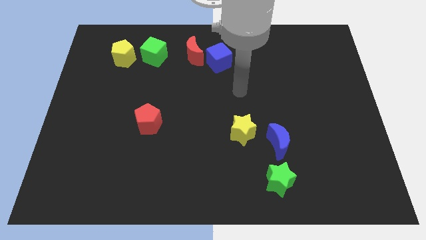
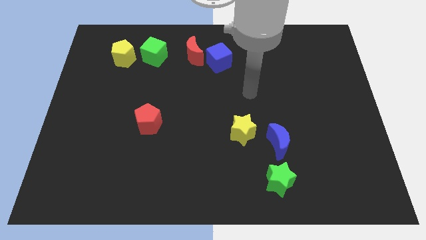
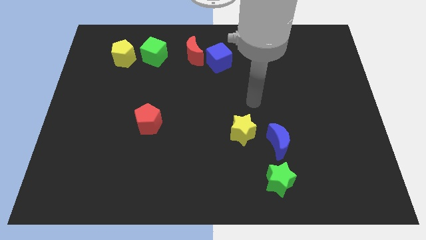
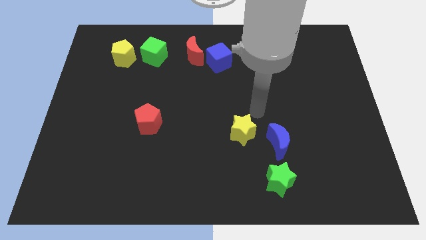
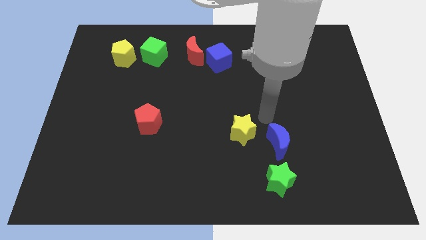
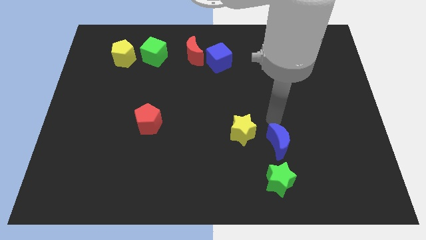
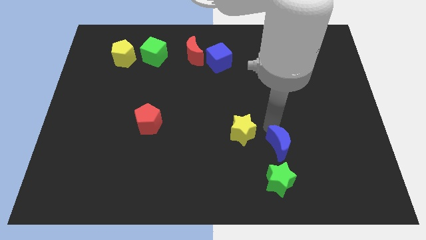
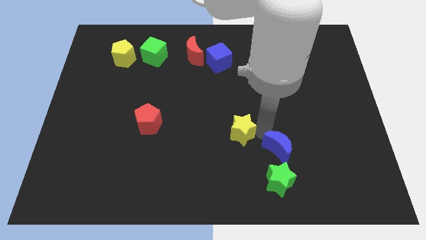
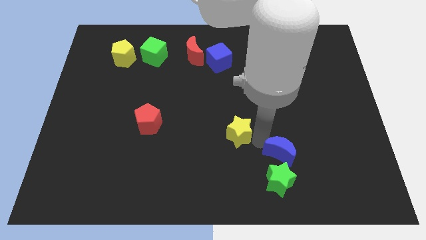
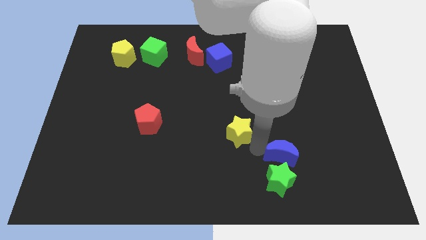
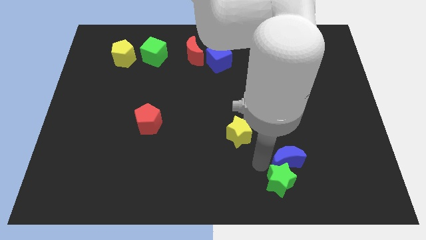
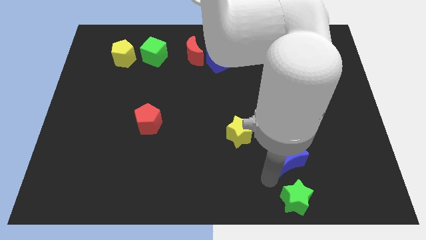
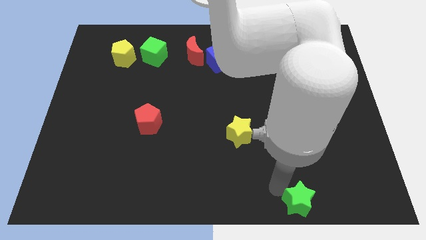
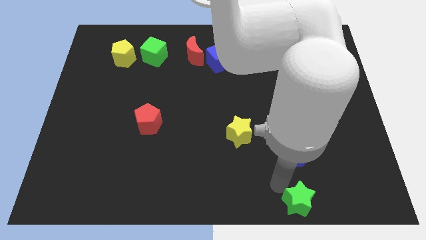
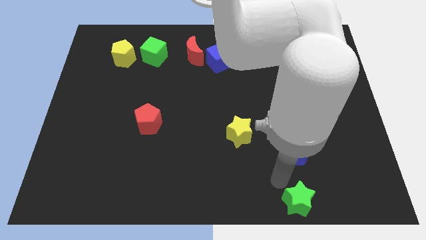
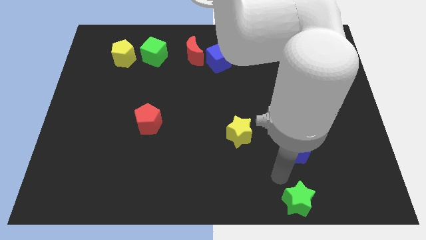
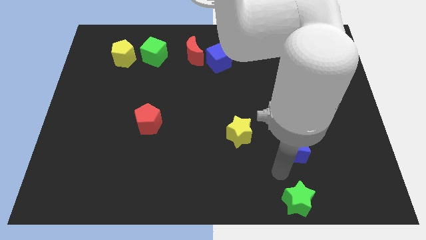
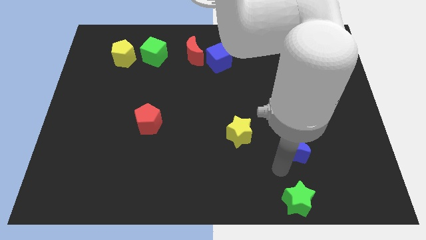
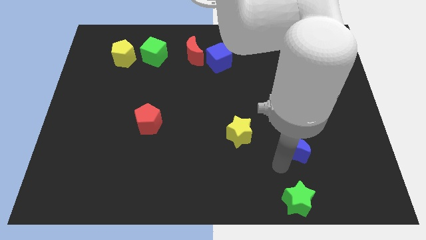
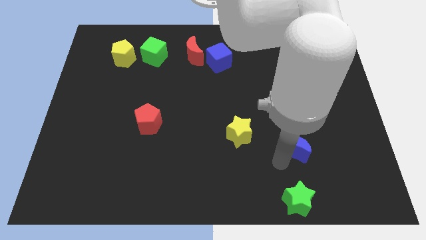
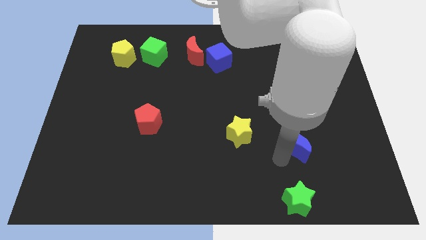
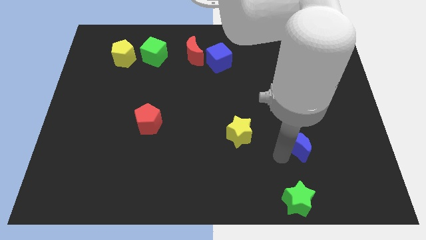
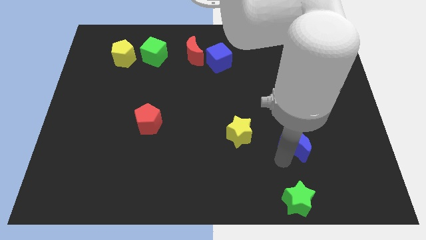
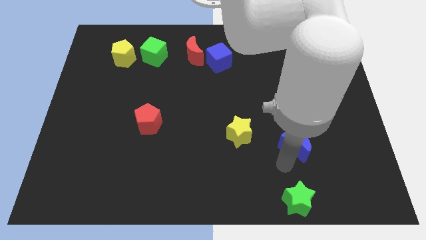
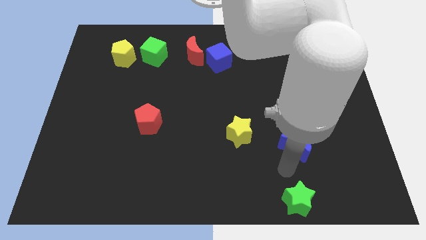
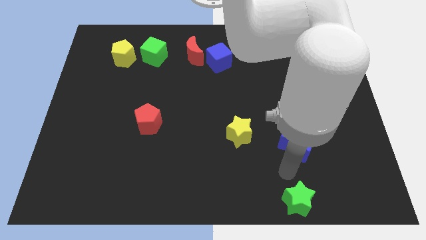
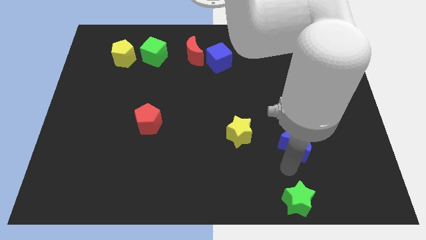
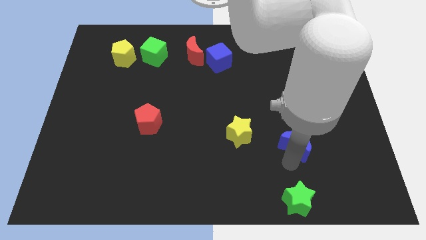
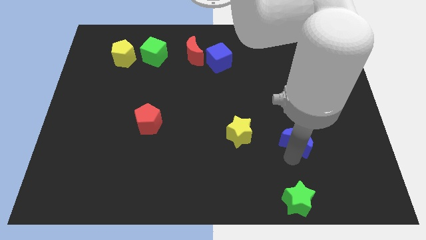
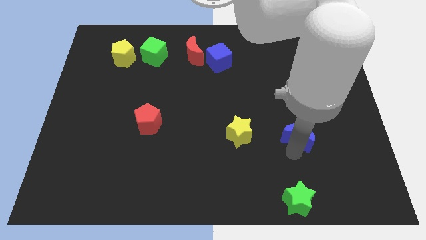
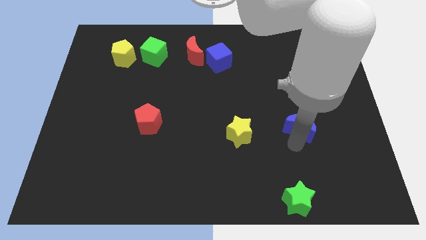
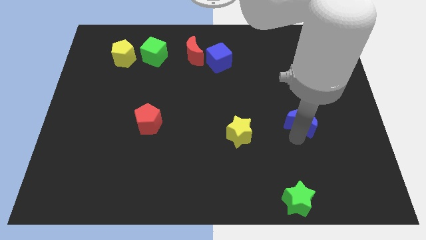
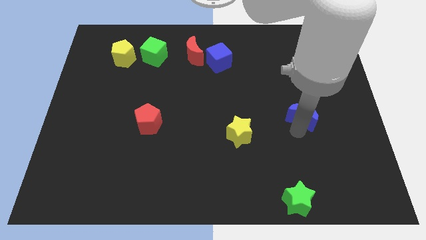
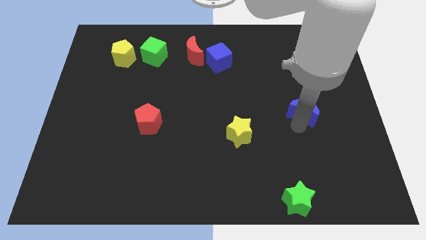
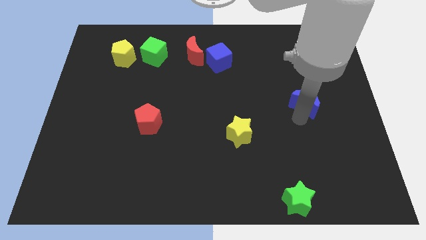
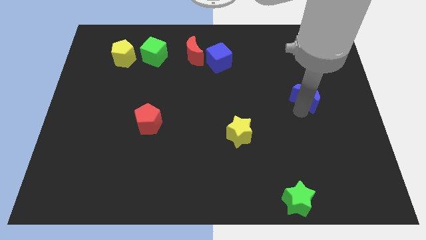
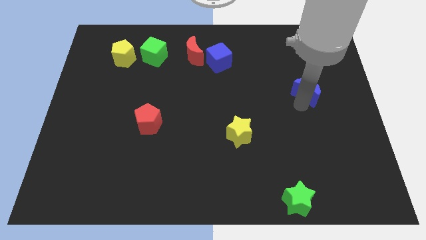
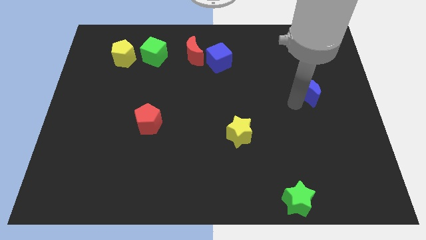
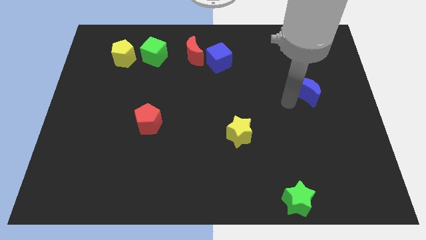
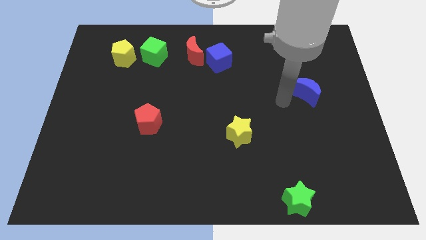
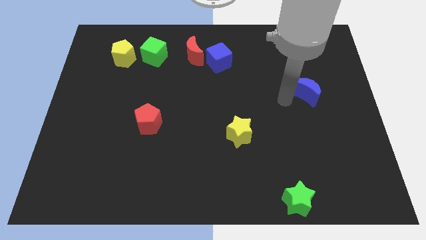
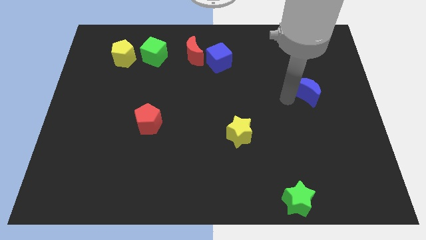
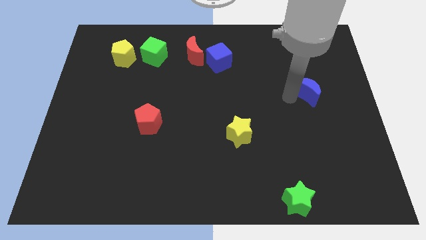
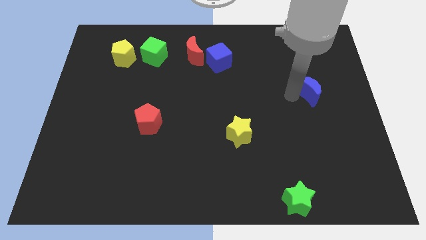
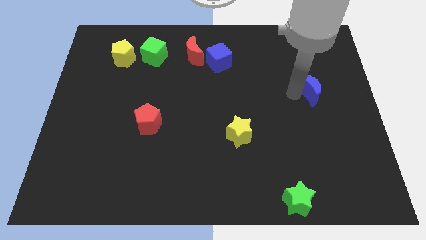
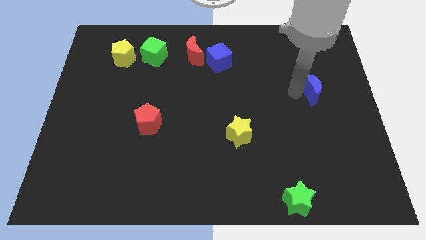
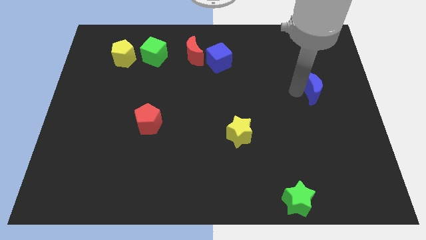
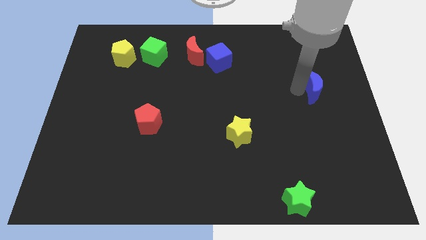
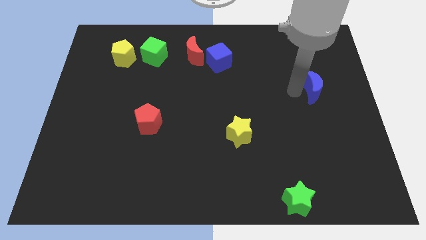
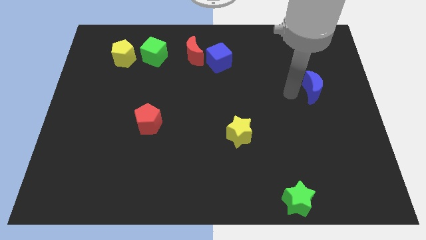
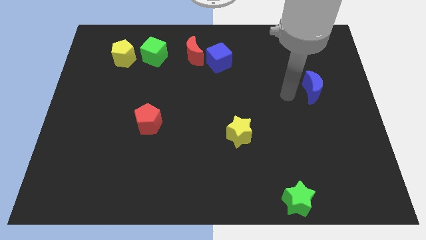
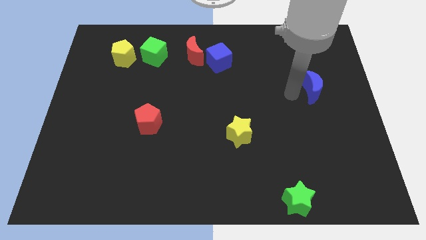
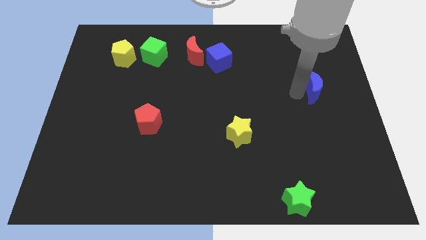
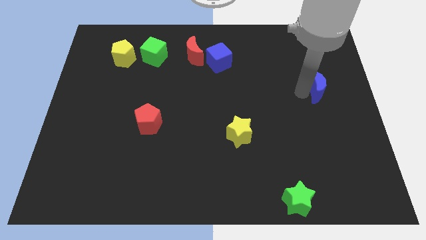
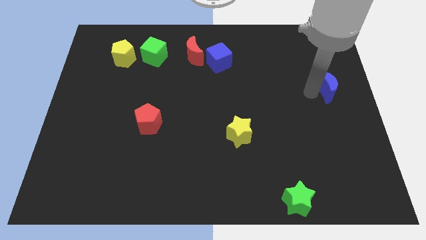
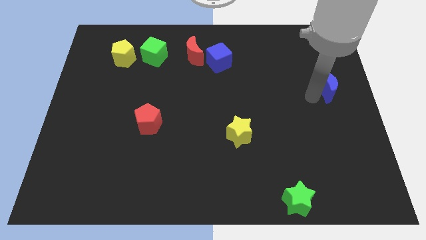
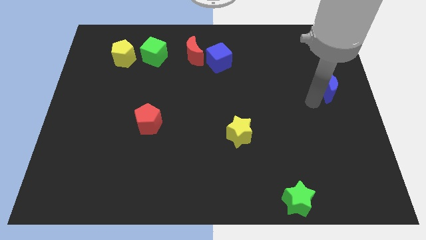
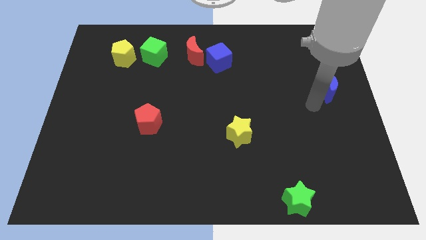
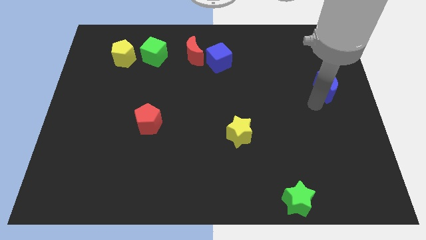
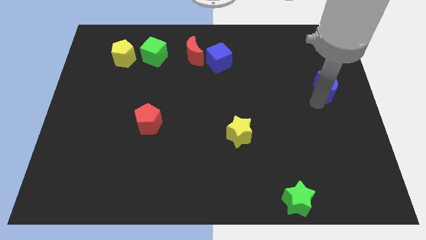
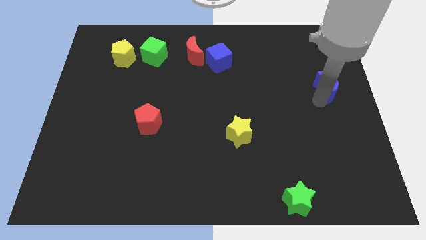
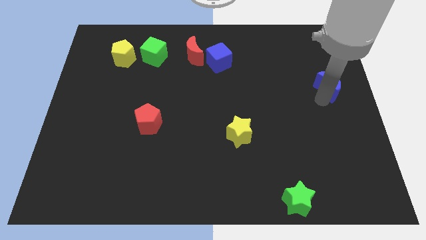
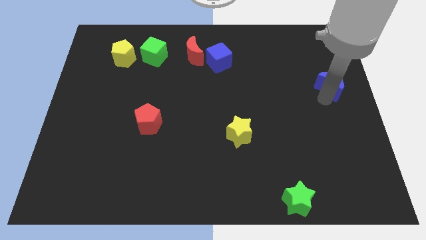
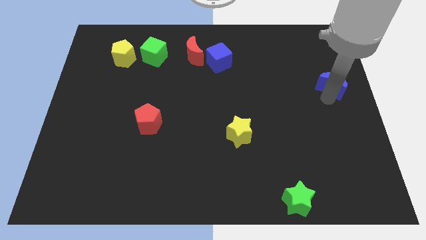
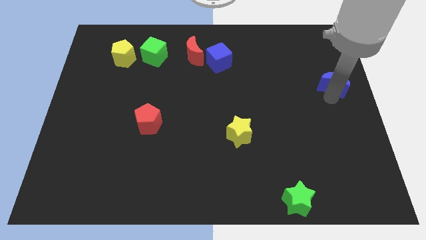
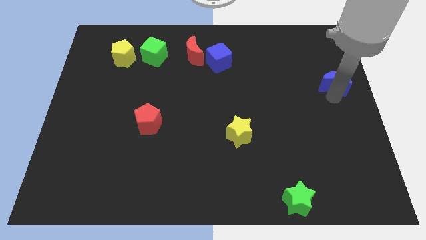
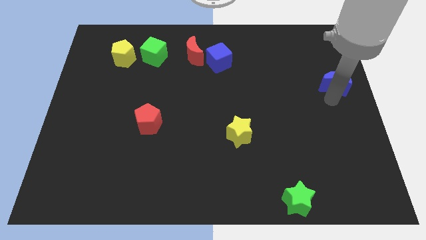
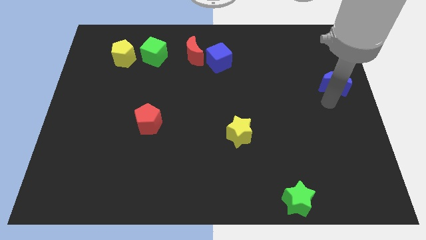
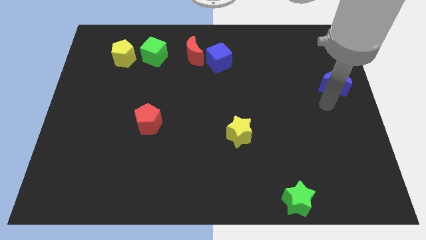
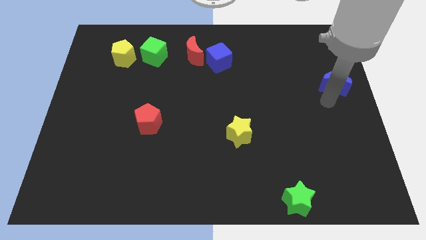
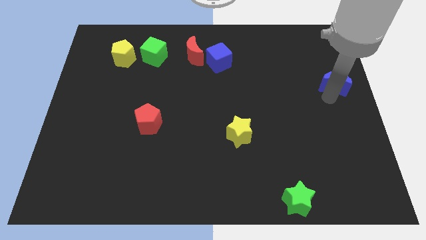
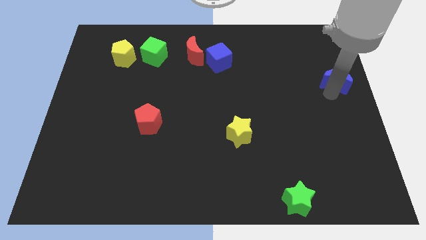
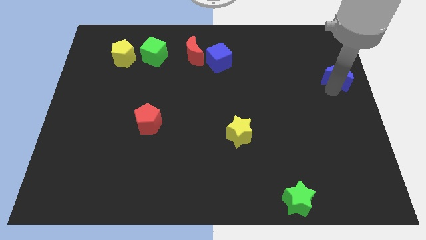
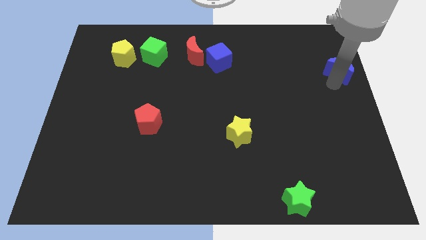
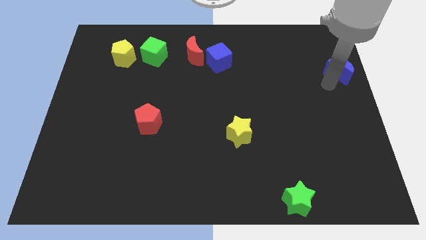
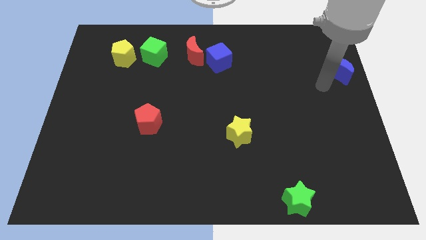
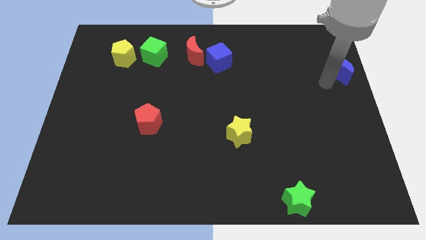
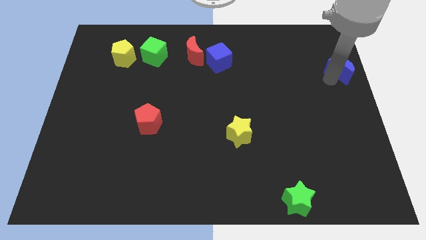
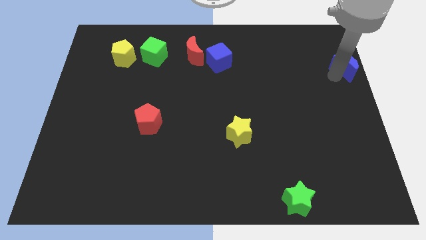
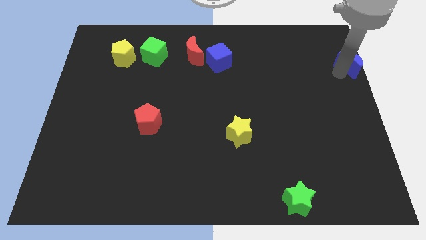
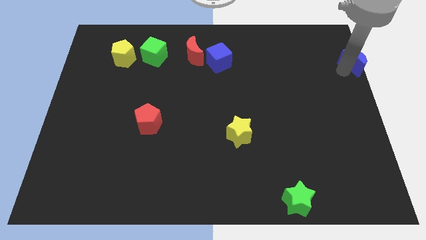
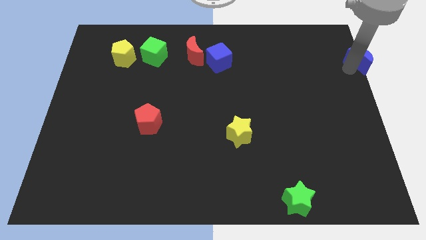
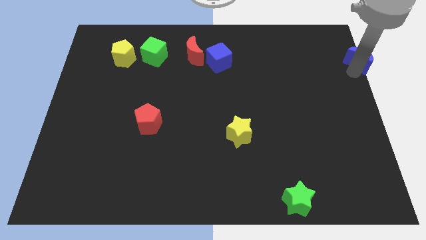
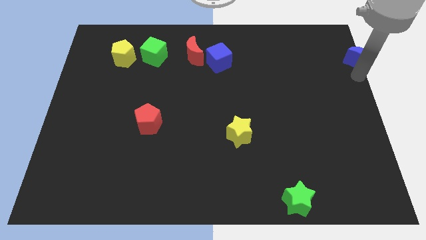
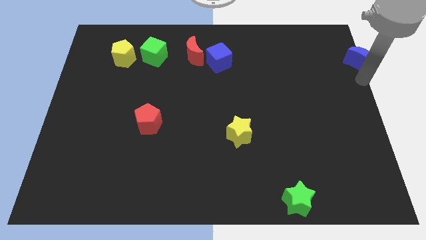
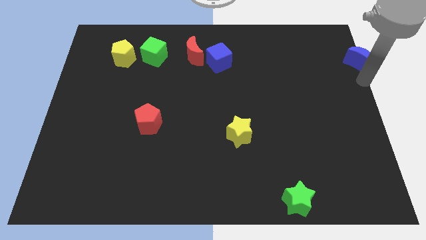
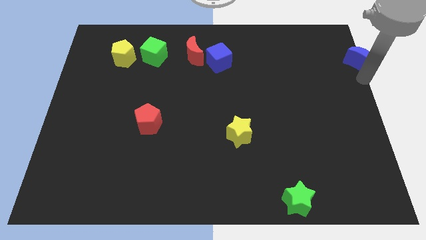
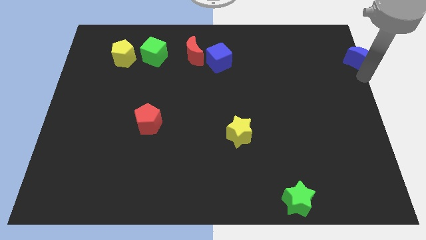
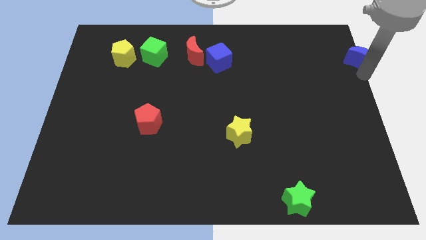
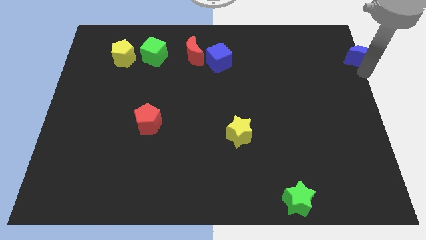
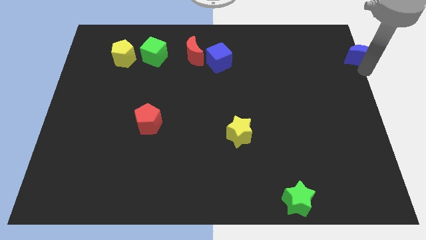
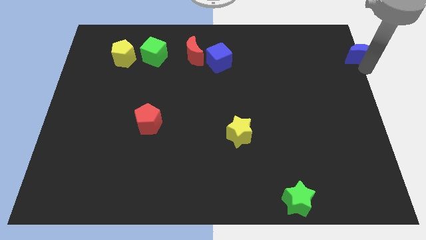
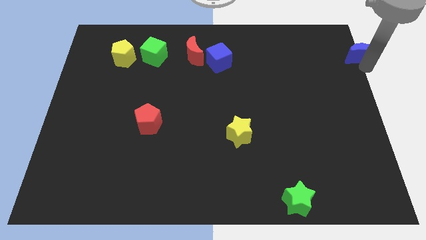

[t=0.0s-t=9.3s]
move the blue moon to the top right
